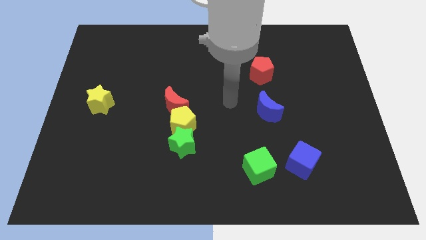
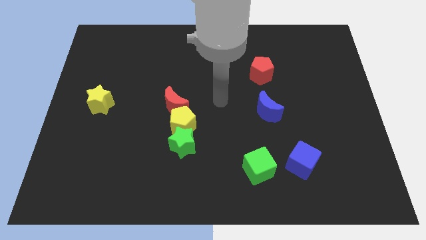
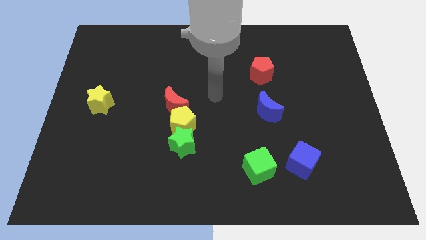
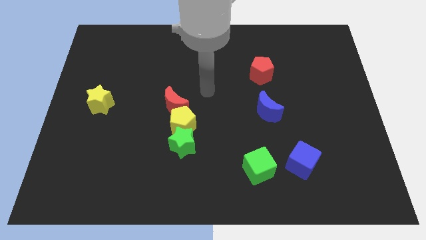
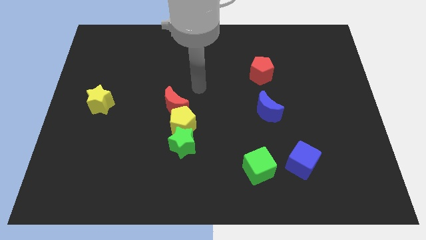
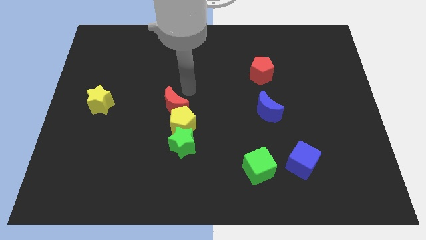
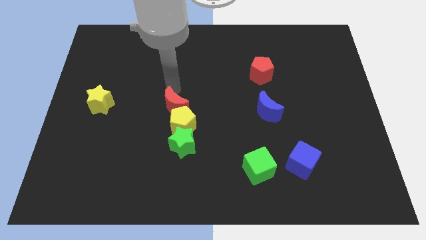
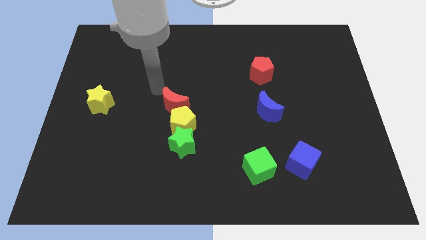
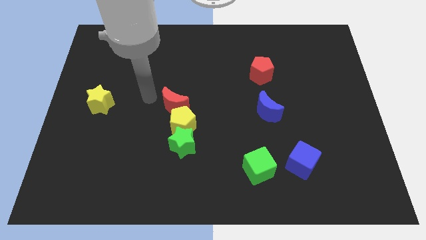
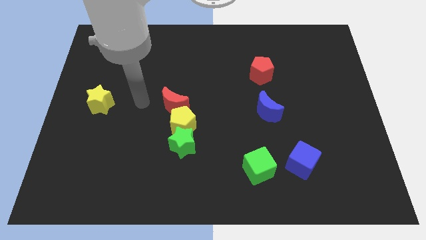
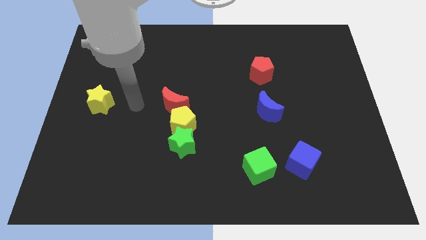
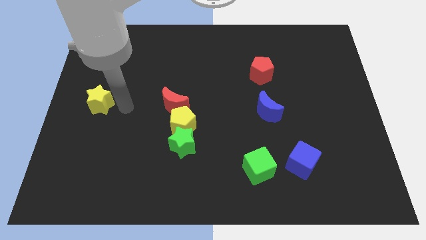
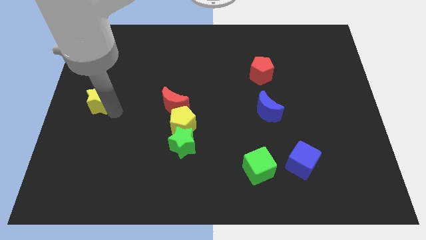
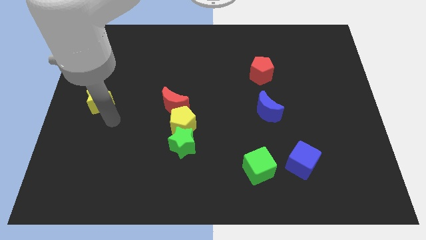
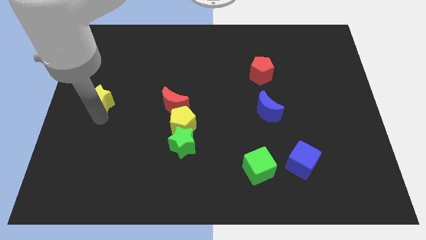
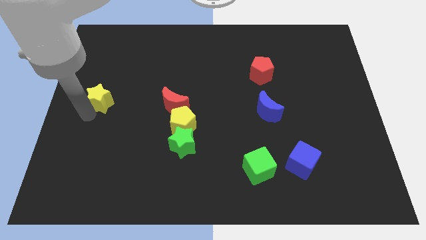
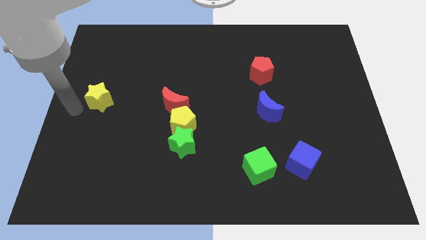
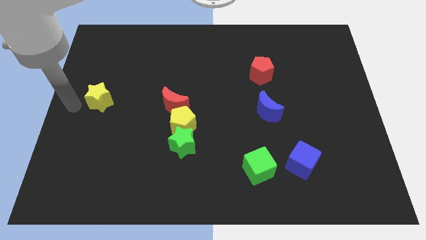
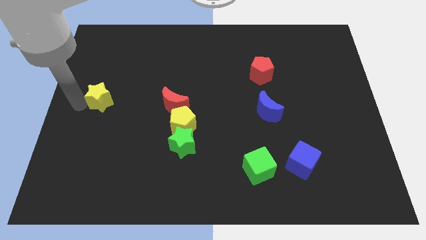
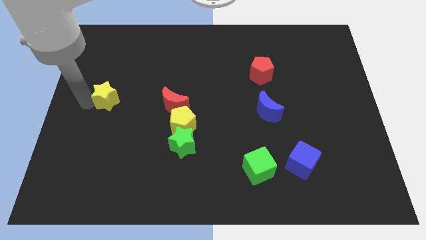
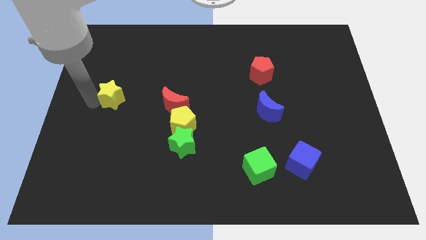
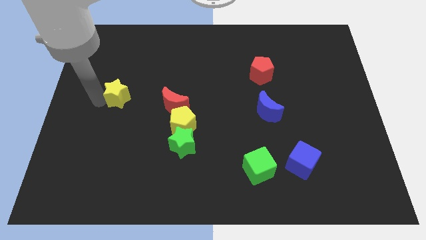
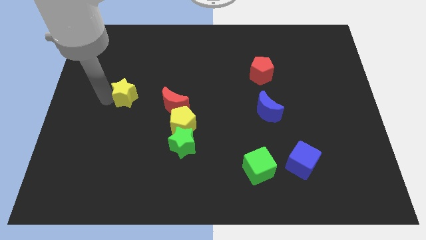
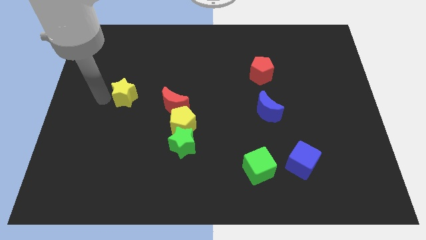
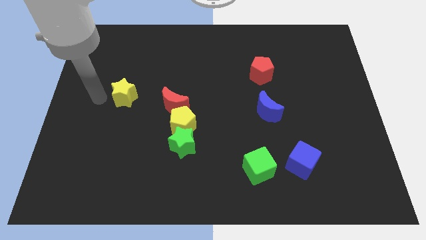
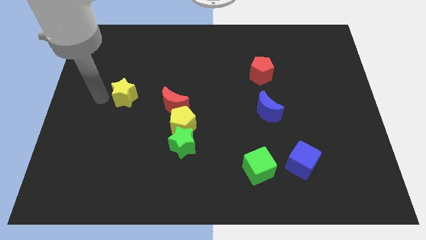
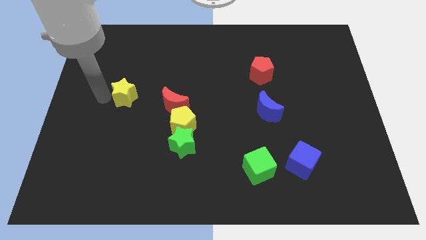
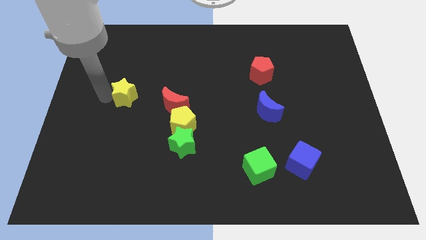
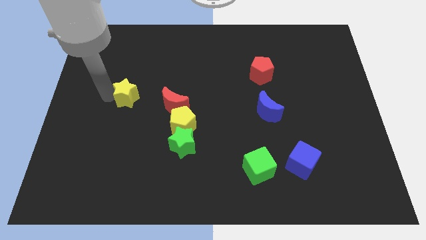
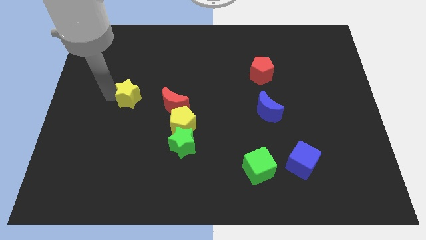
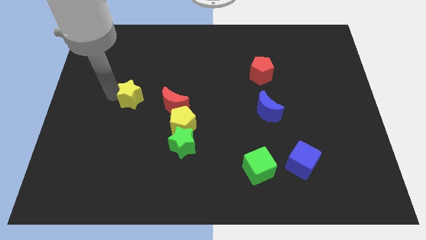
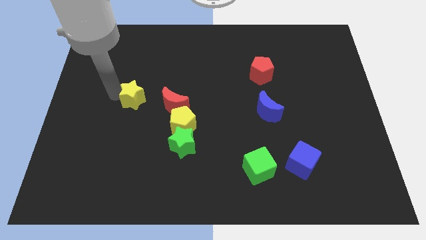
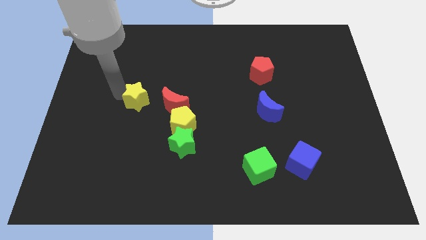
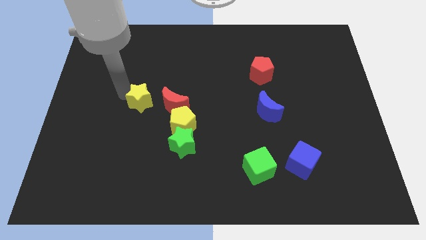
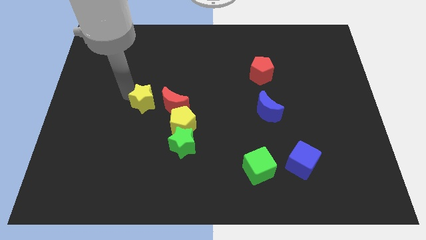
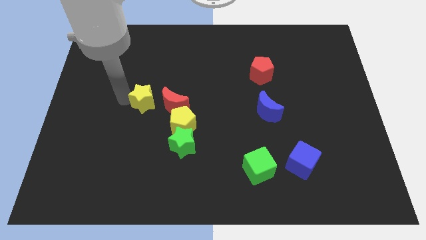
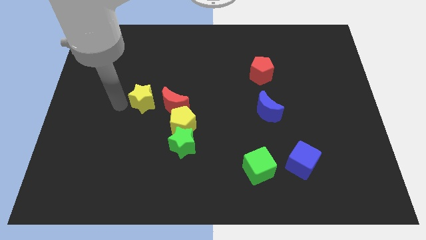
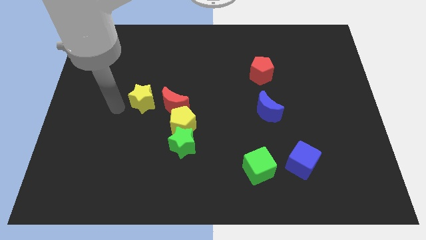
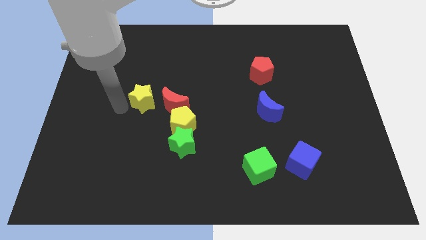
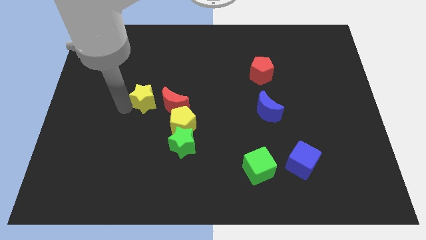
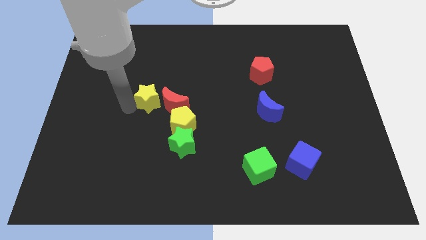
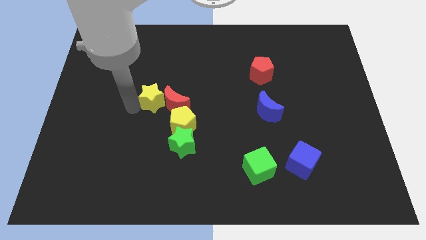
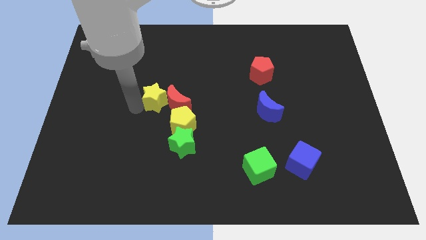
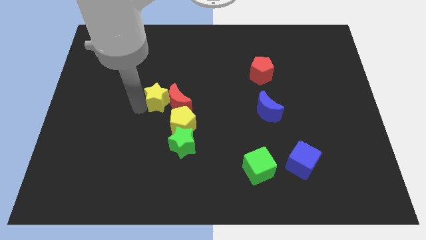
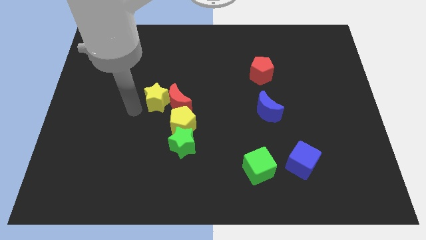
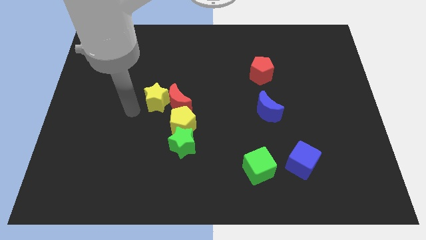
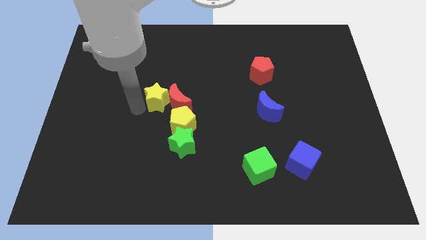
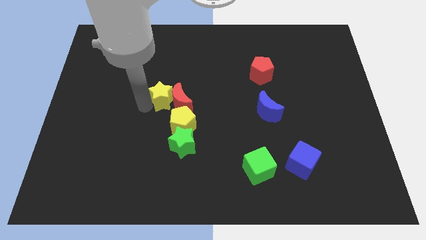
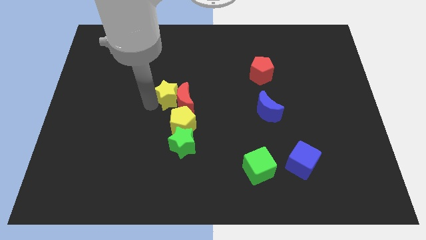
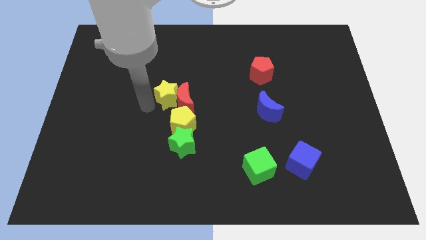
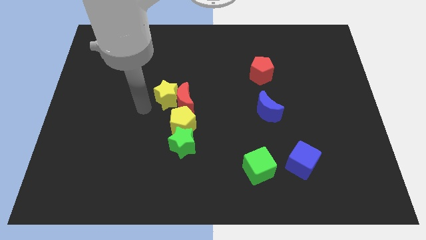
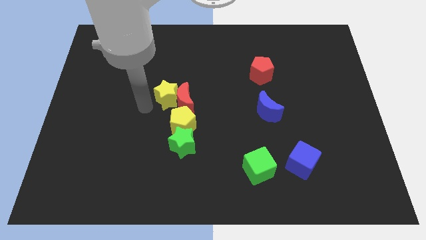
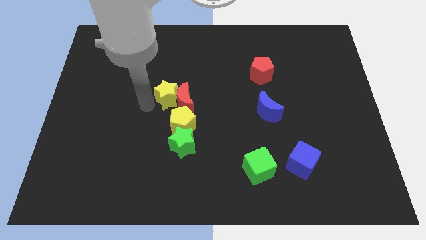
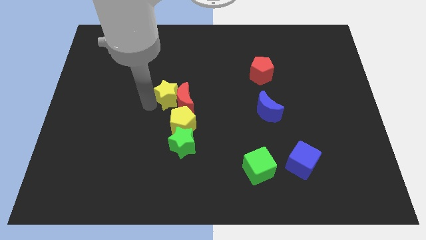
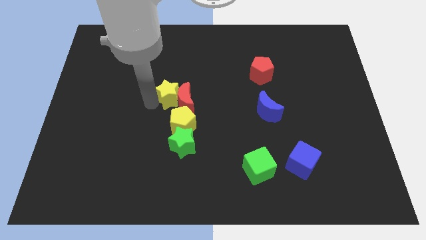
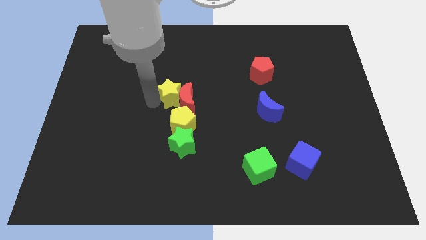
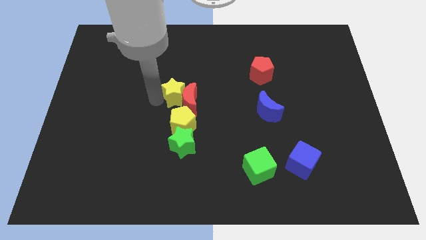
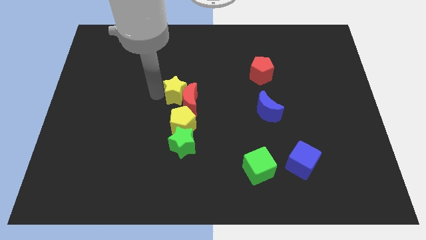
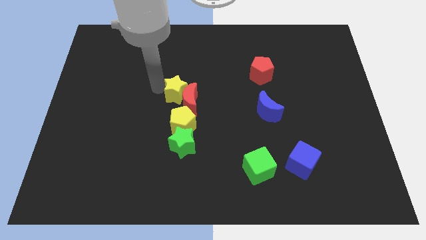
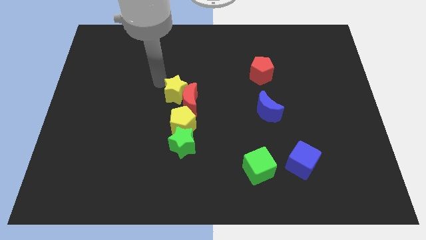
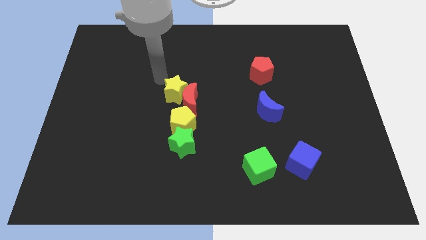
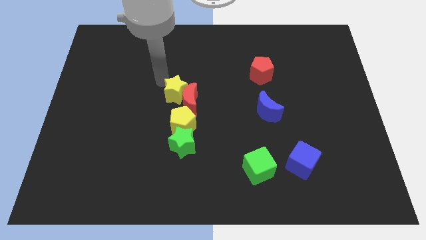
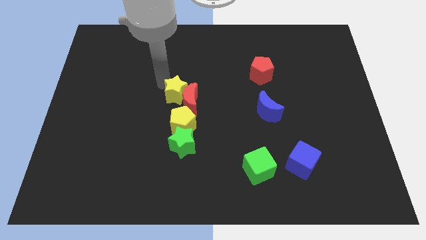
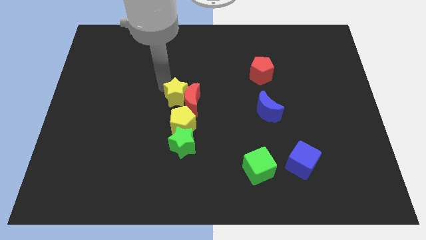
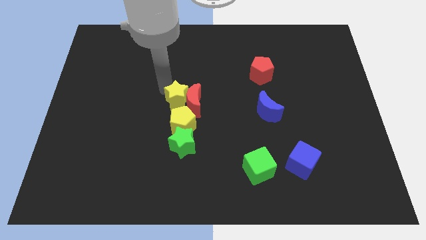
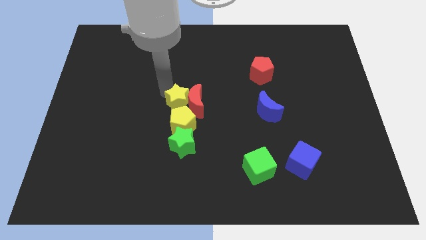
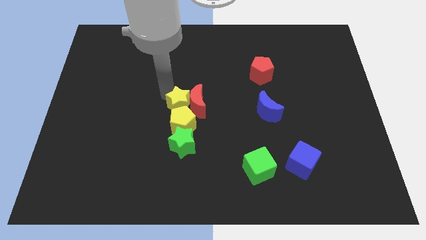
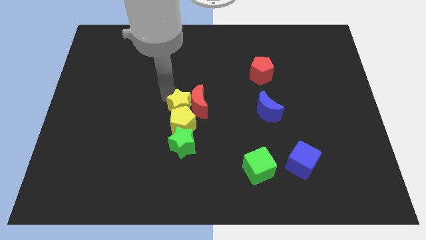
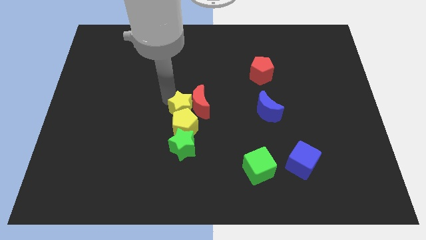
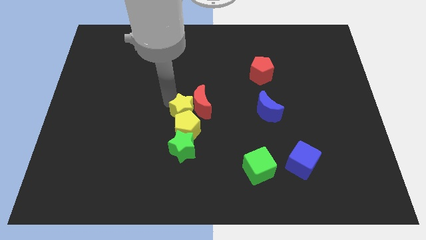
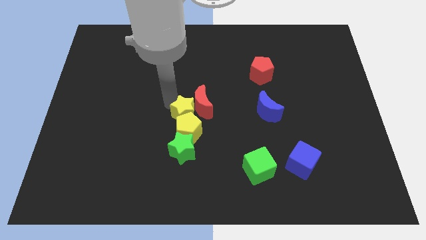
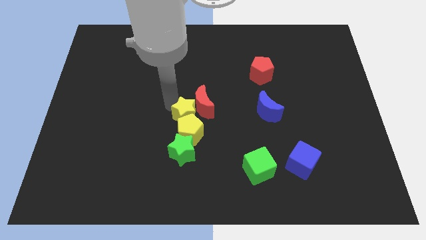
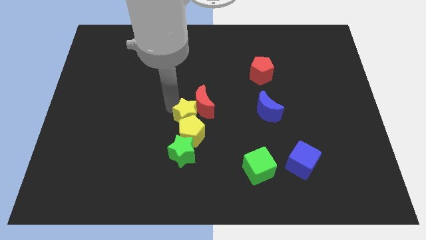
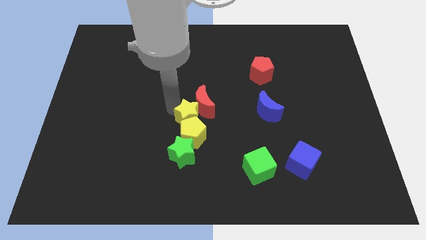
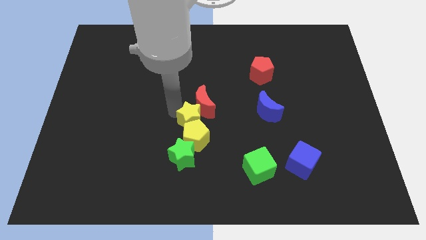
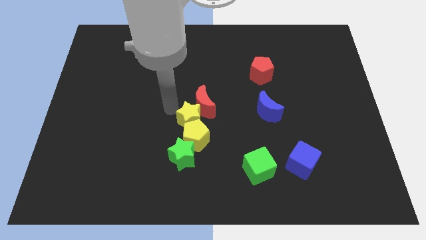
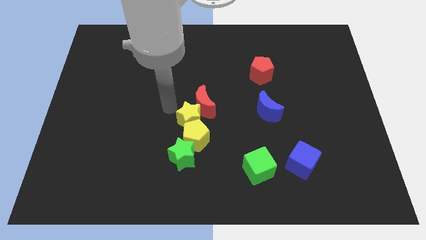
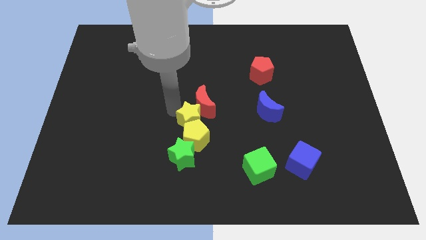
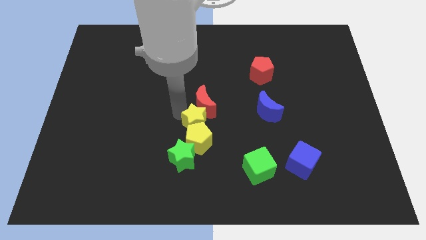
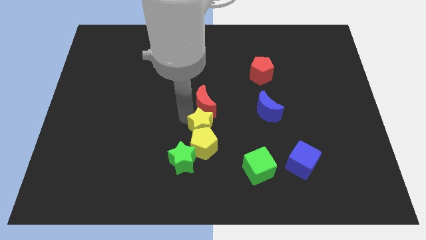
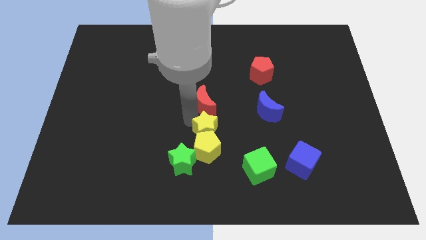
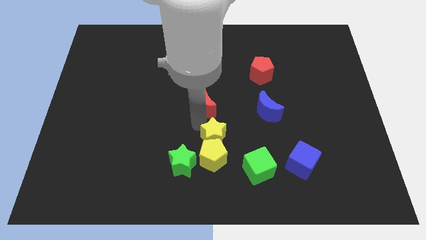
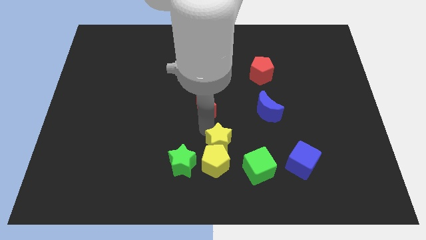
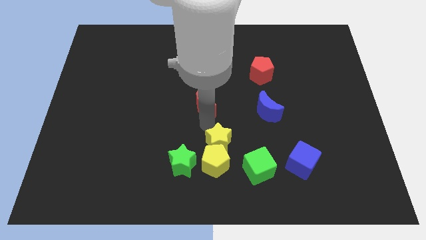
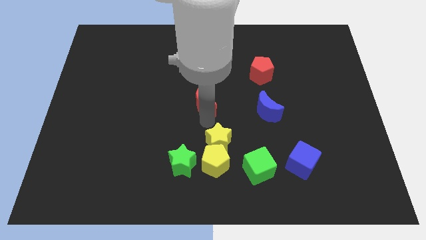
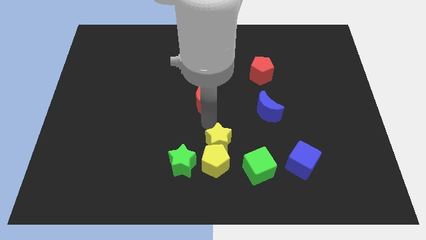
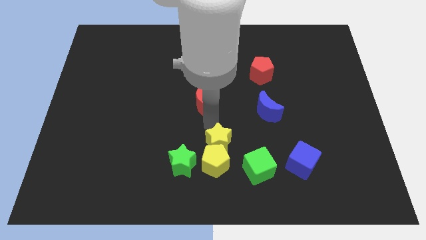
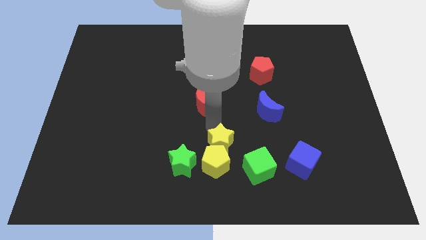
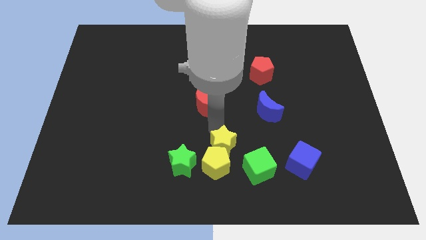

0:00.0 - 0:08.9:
move the yellow star to the right of the green star
